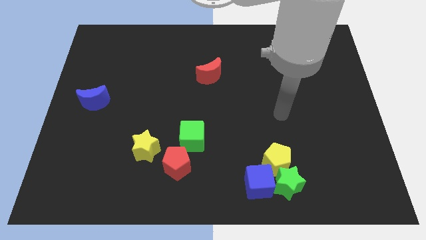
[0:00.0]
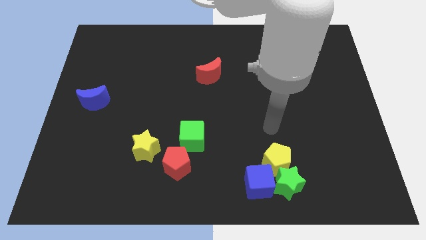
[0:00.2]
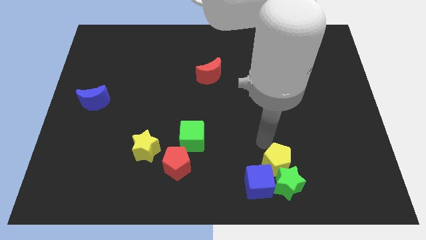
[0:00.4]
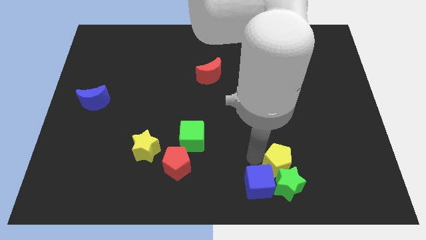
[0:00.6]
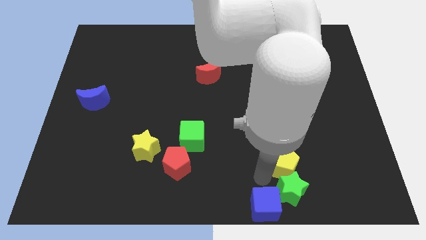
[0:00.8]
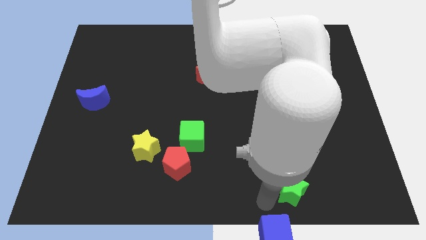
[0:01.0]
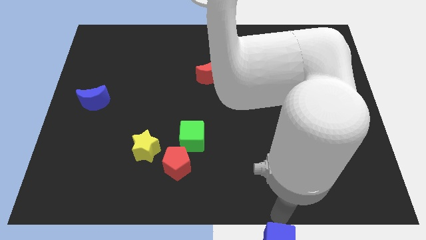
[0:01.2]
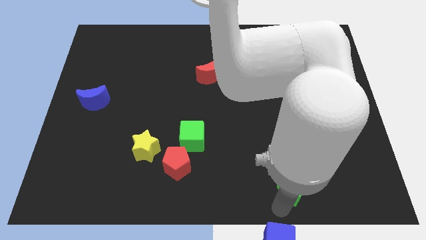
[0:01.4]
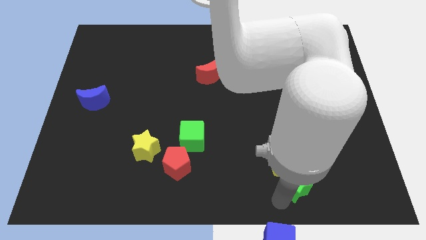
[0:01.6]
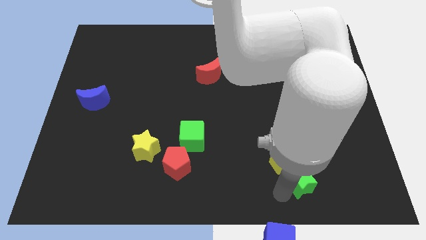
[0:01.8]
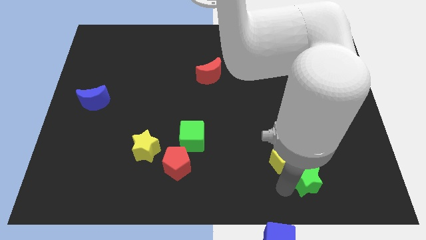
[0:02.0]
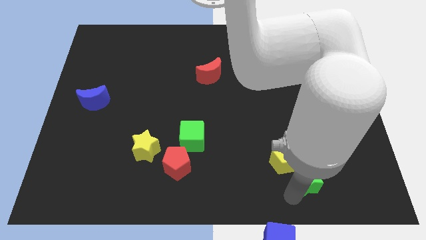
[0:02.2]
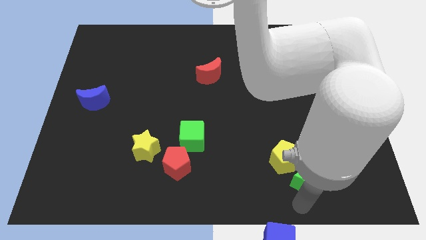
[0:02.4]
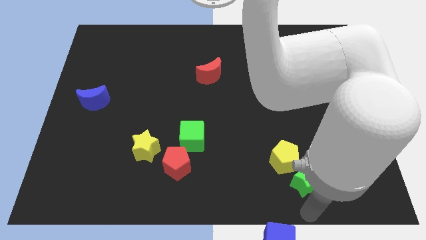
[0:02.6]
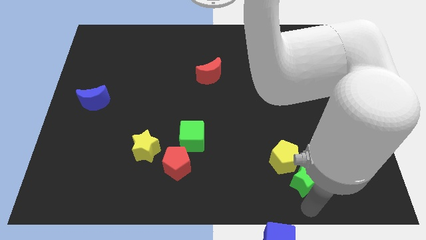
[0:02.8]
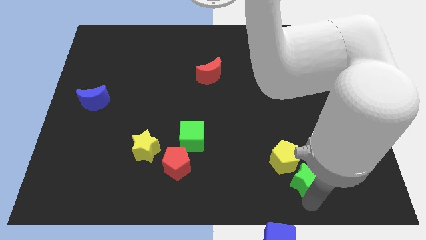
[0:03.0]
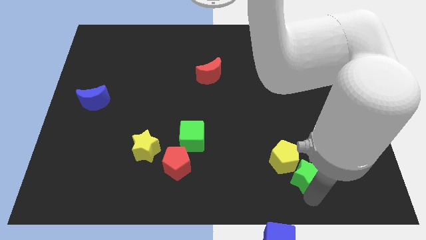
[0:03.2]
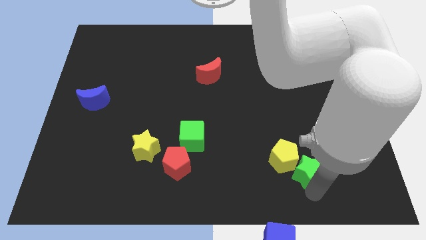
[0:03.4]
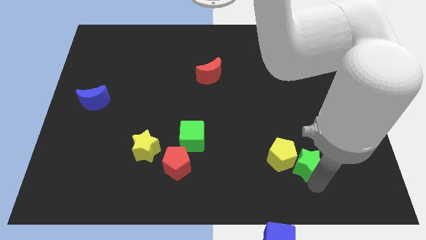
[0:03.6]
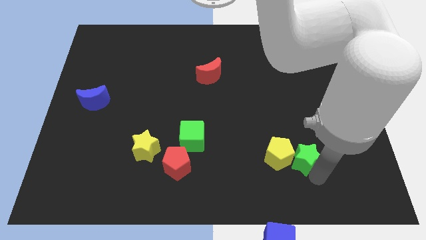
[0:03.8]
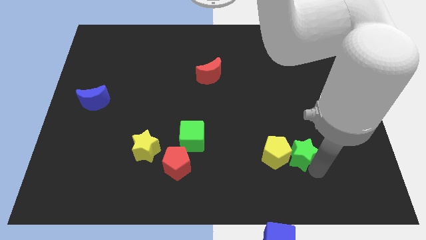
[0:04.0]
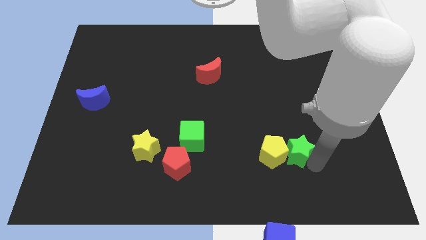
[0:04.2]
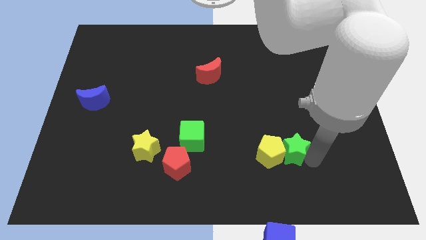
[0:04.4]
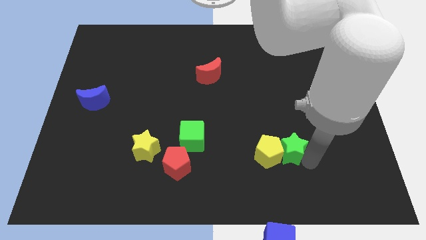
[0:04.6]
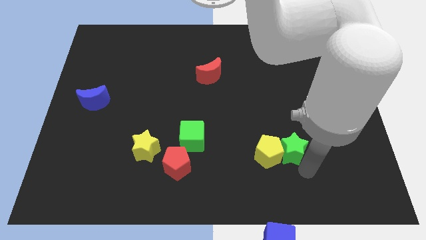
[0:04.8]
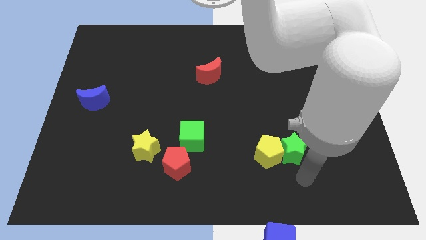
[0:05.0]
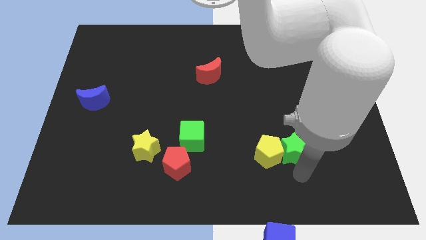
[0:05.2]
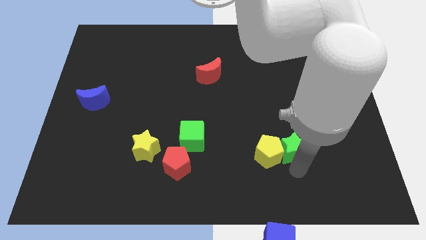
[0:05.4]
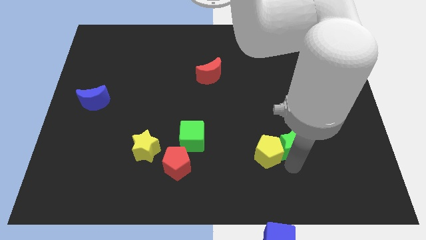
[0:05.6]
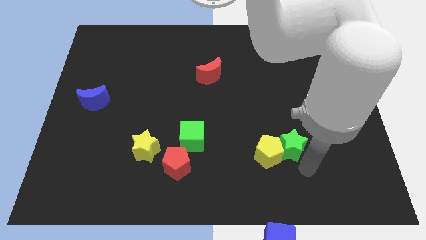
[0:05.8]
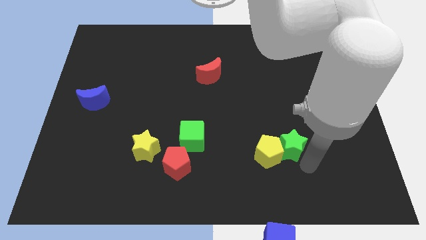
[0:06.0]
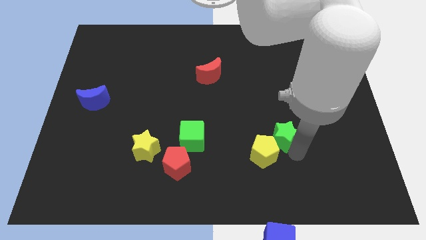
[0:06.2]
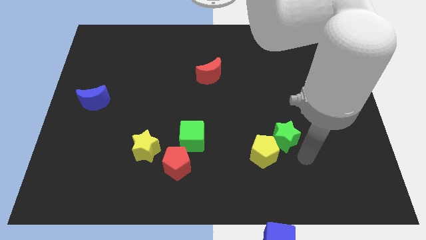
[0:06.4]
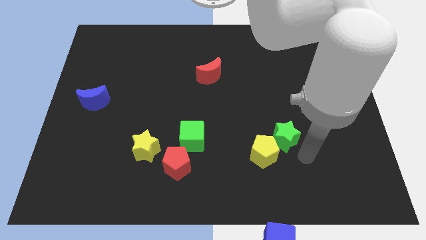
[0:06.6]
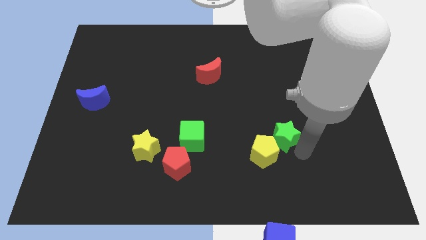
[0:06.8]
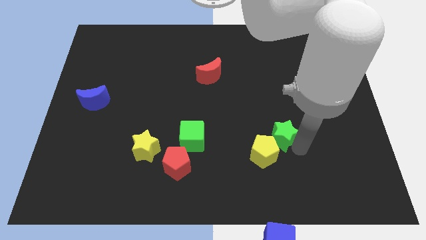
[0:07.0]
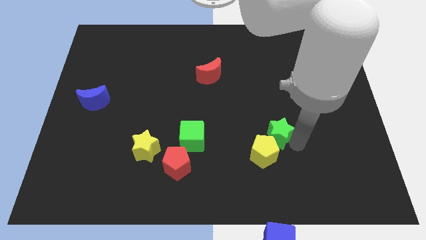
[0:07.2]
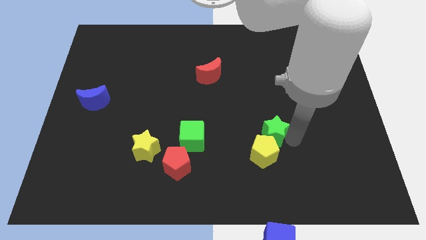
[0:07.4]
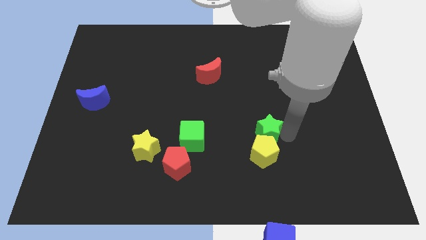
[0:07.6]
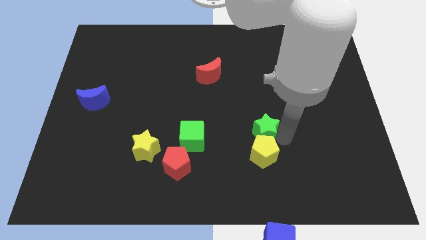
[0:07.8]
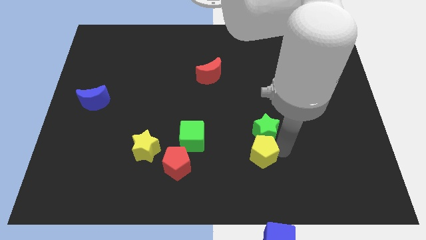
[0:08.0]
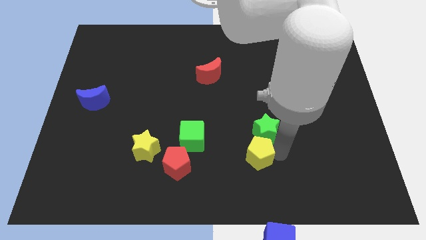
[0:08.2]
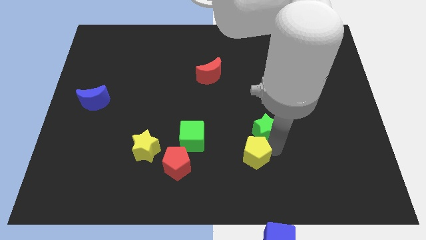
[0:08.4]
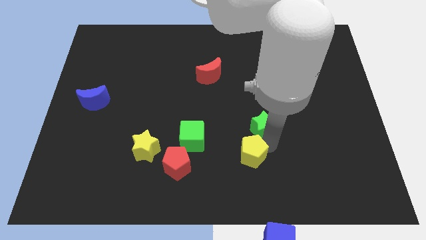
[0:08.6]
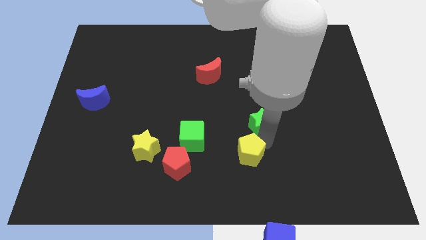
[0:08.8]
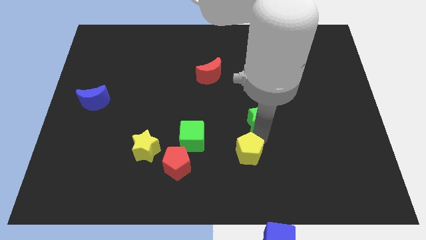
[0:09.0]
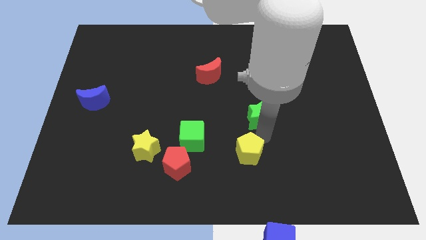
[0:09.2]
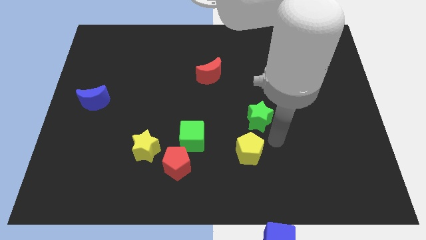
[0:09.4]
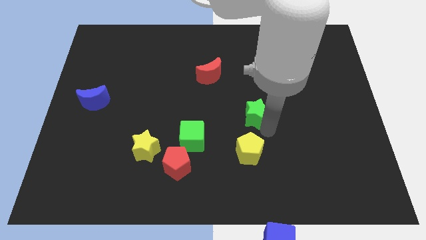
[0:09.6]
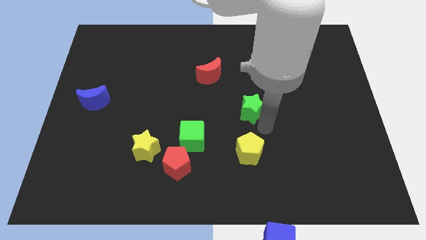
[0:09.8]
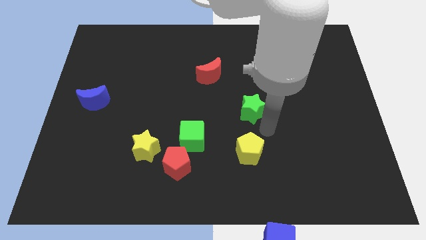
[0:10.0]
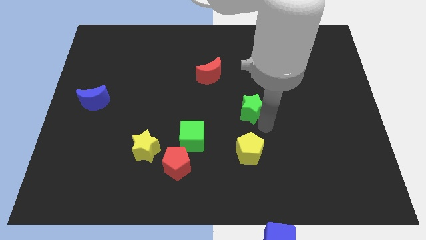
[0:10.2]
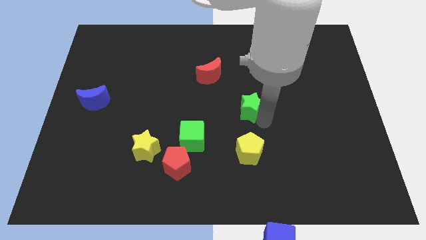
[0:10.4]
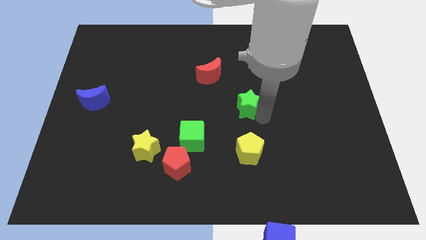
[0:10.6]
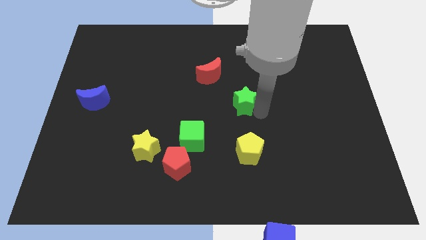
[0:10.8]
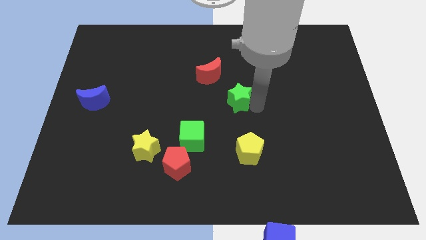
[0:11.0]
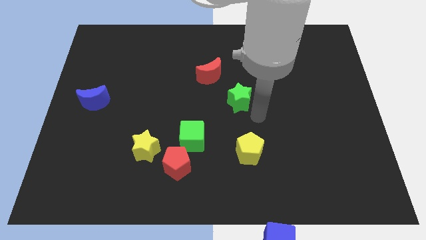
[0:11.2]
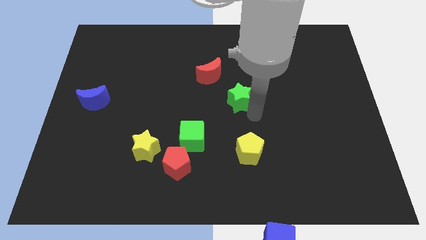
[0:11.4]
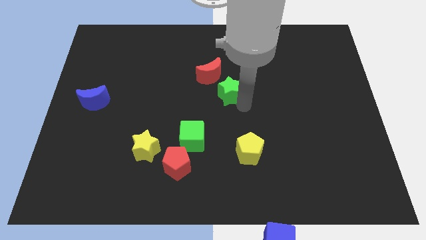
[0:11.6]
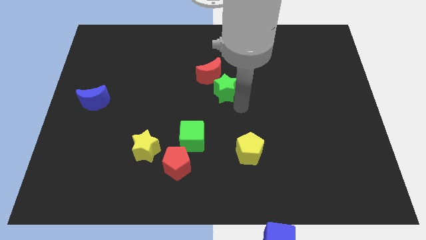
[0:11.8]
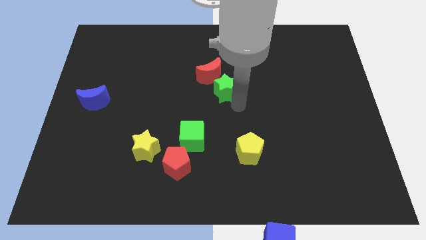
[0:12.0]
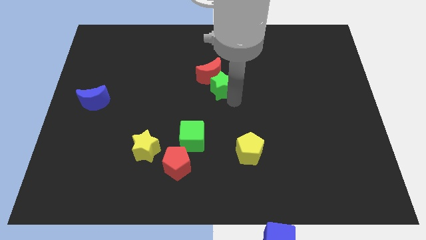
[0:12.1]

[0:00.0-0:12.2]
move the green star next to the red moon

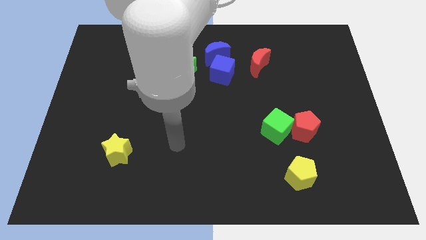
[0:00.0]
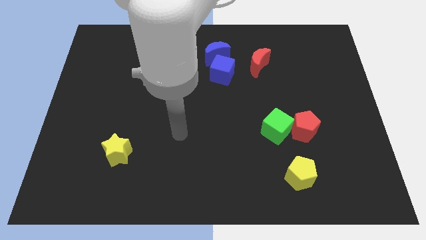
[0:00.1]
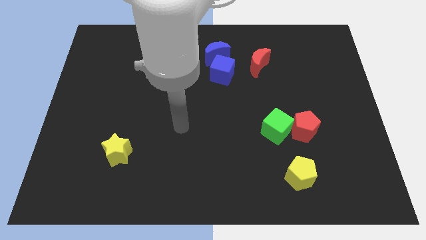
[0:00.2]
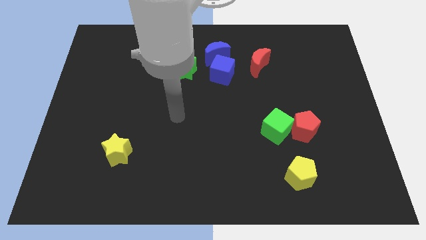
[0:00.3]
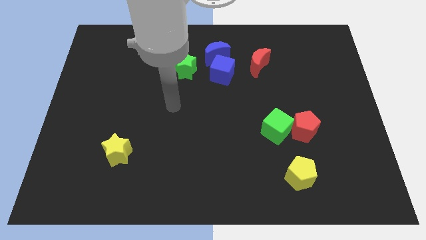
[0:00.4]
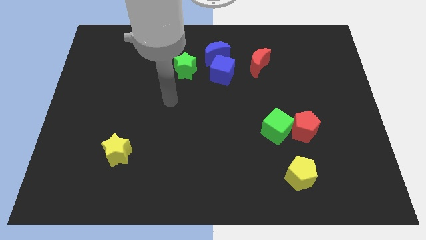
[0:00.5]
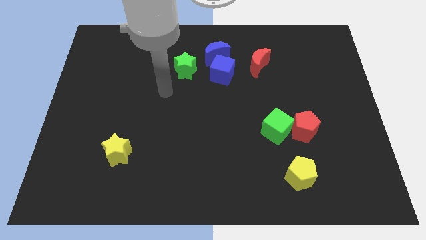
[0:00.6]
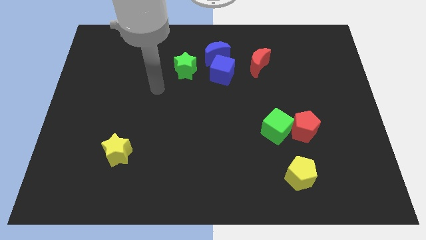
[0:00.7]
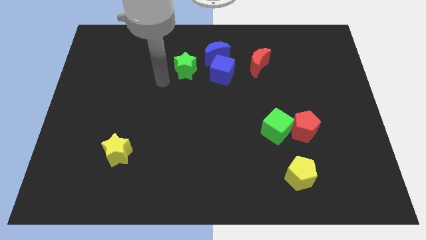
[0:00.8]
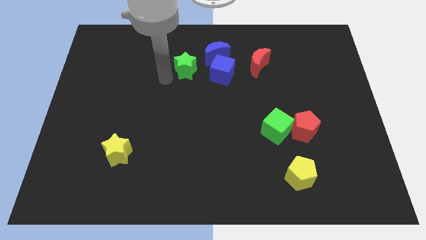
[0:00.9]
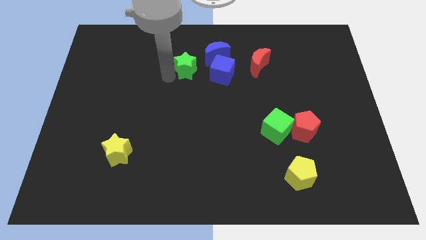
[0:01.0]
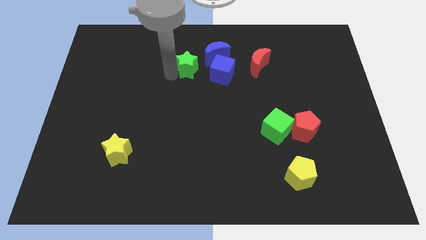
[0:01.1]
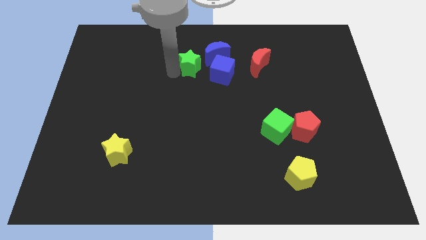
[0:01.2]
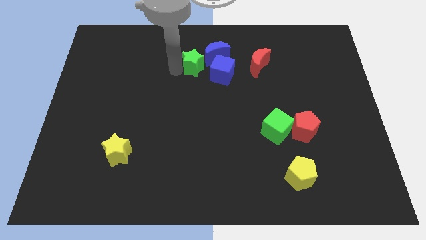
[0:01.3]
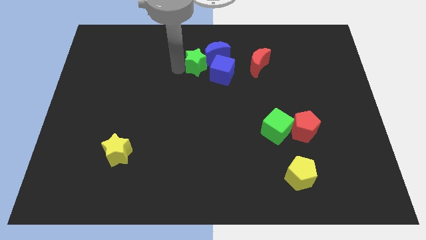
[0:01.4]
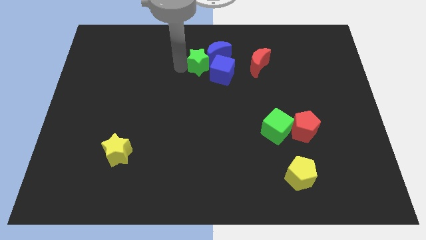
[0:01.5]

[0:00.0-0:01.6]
slide the green star to the blue moon
